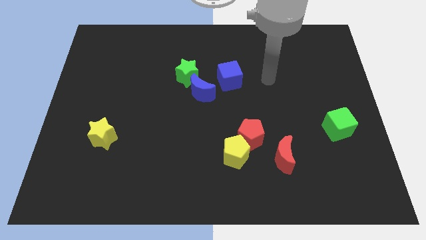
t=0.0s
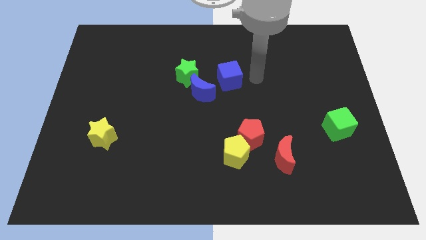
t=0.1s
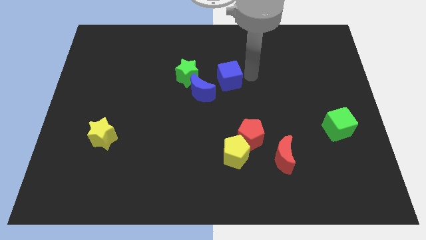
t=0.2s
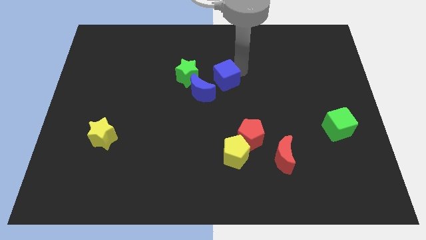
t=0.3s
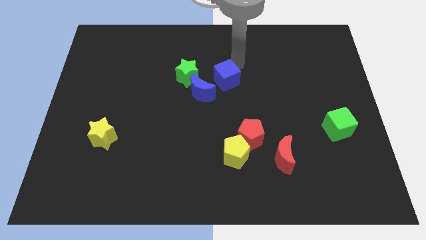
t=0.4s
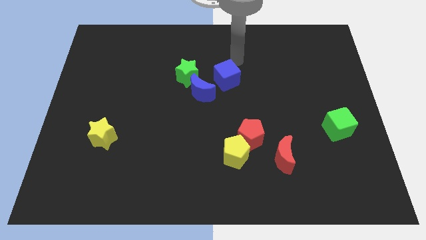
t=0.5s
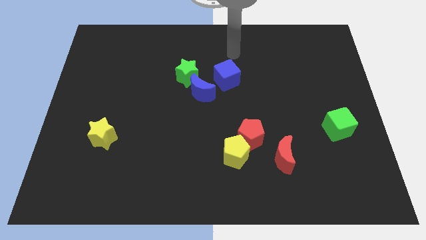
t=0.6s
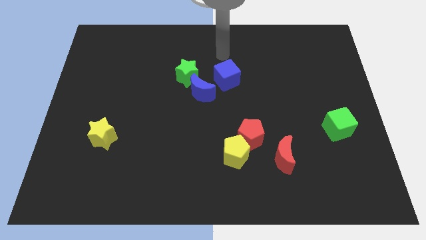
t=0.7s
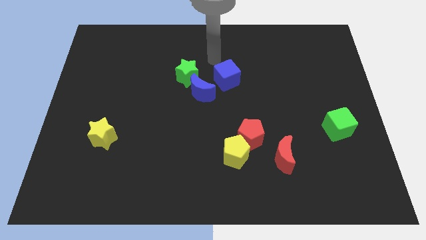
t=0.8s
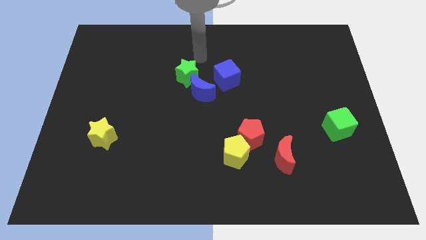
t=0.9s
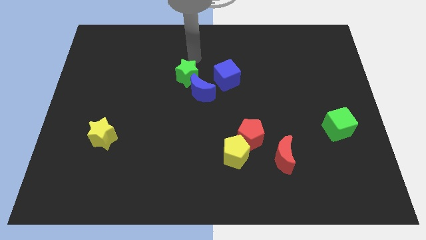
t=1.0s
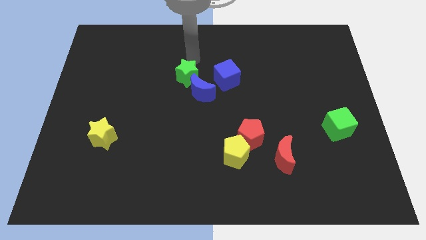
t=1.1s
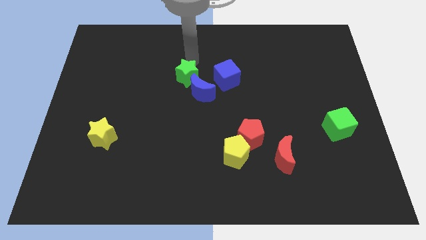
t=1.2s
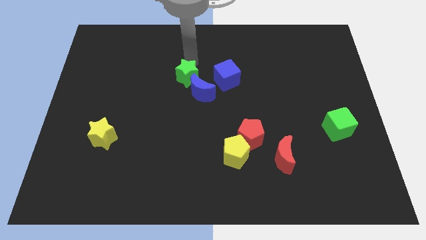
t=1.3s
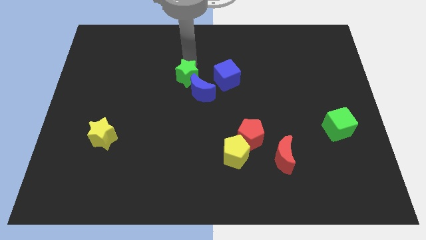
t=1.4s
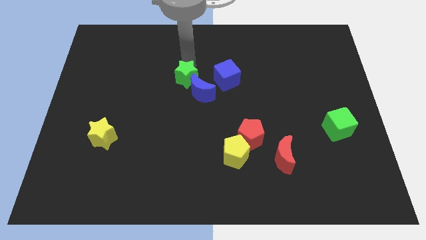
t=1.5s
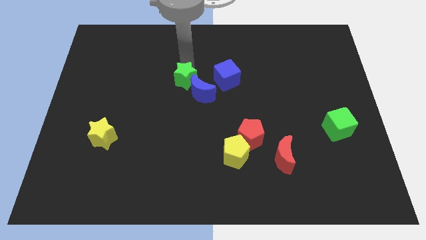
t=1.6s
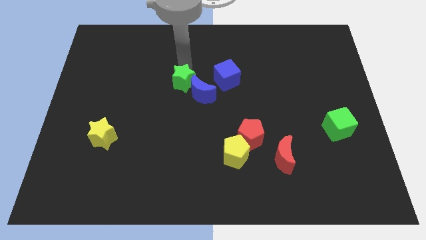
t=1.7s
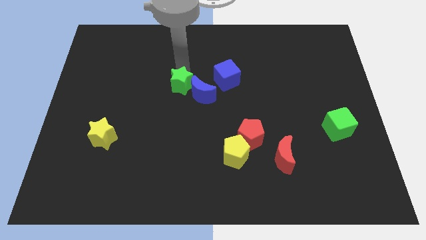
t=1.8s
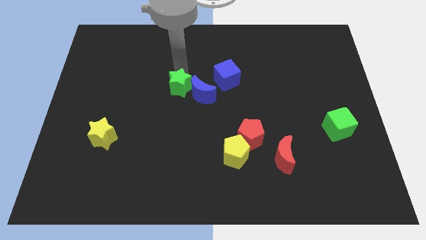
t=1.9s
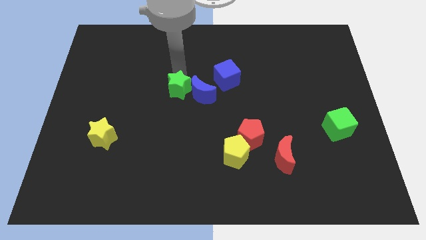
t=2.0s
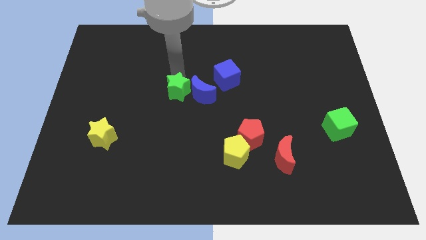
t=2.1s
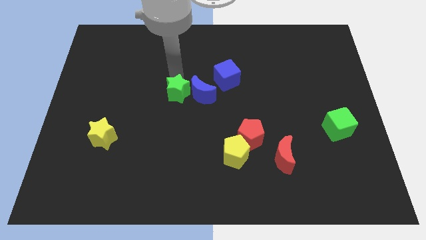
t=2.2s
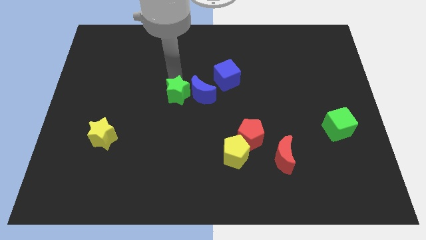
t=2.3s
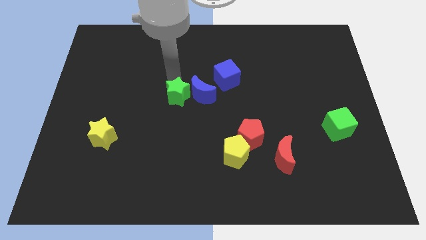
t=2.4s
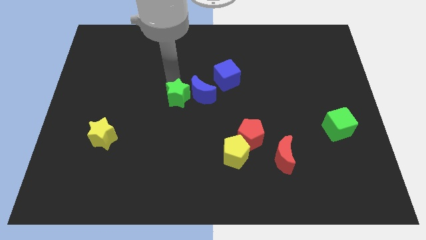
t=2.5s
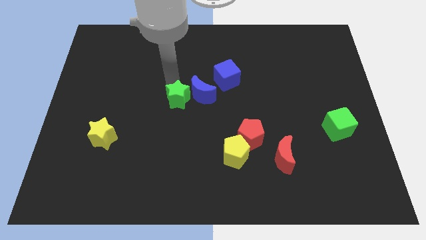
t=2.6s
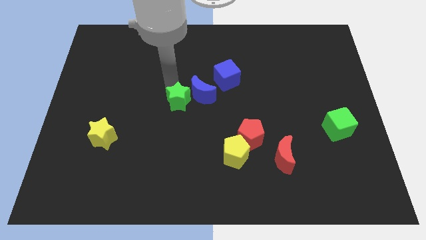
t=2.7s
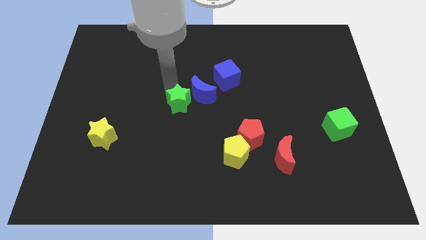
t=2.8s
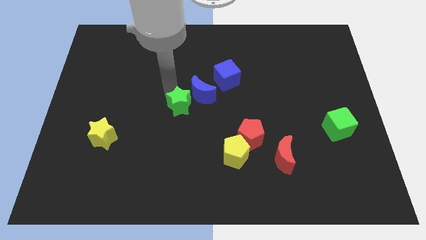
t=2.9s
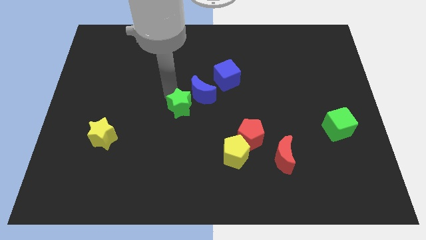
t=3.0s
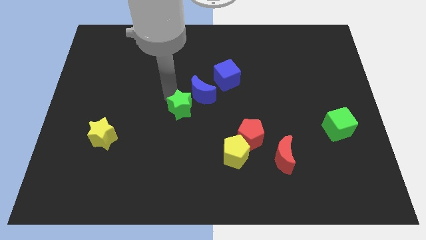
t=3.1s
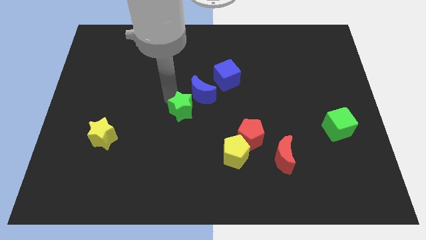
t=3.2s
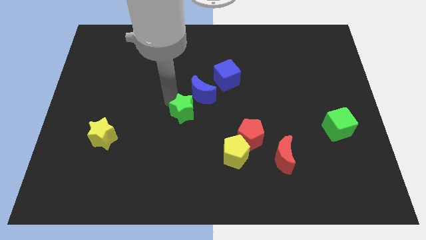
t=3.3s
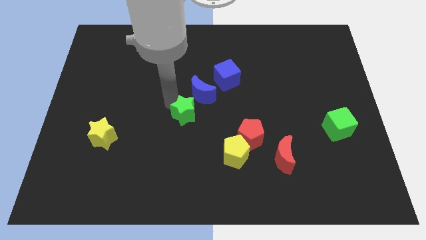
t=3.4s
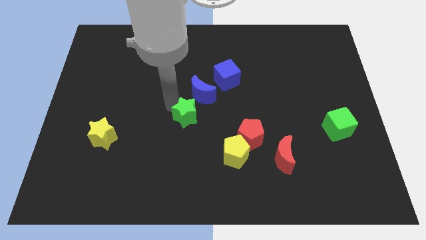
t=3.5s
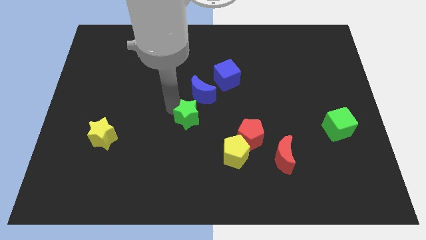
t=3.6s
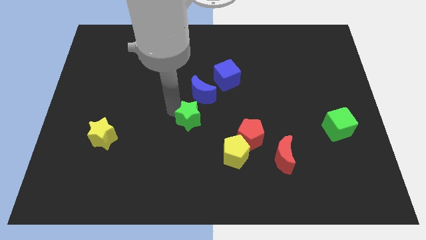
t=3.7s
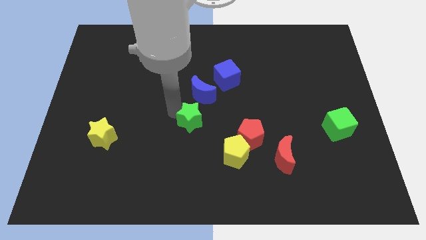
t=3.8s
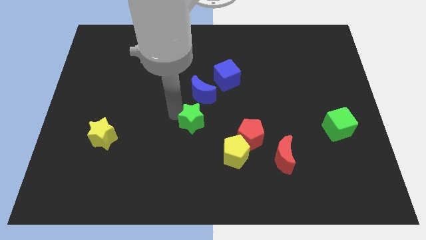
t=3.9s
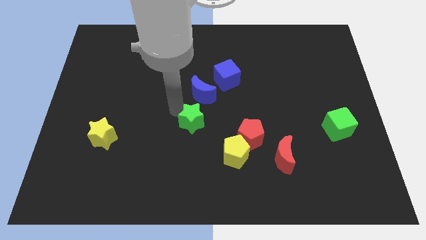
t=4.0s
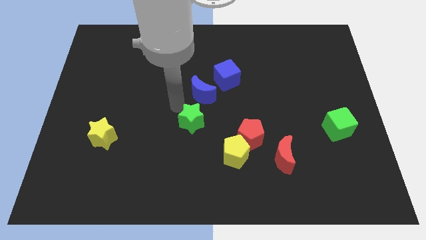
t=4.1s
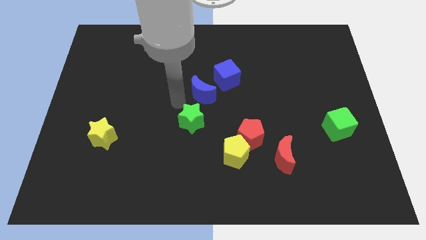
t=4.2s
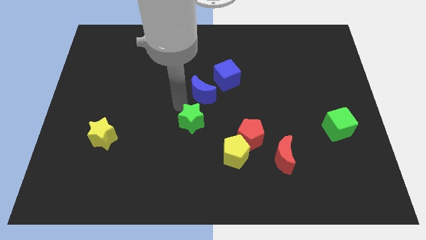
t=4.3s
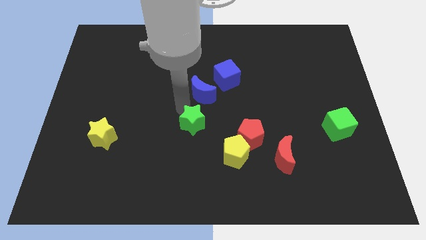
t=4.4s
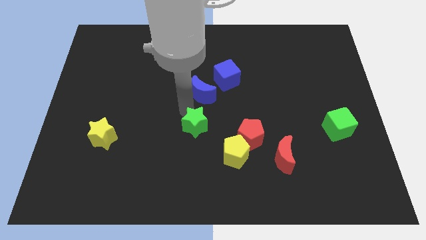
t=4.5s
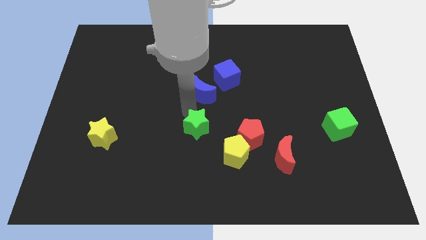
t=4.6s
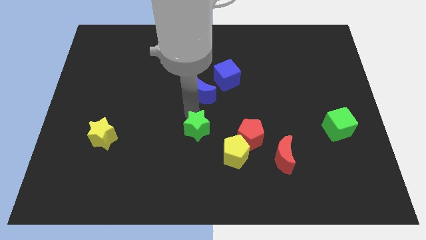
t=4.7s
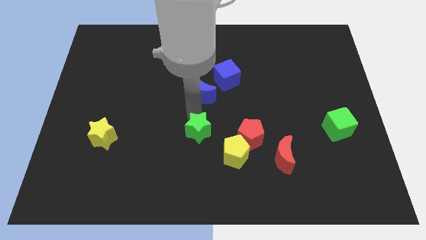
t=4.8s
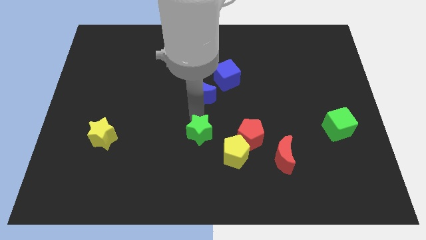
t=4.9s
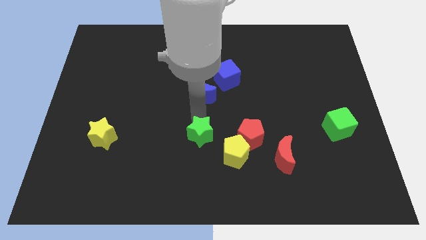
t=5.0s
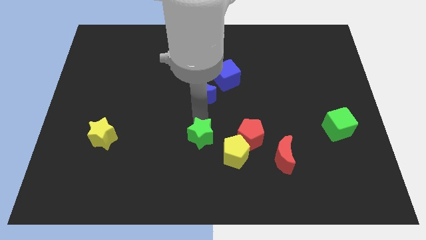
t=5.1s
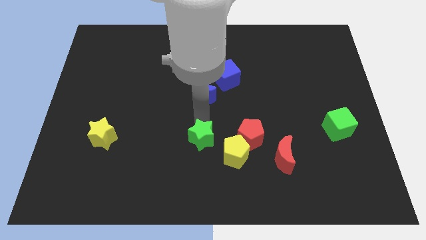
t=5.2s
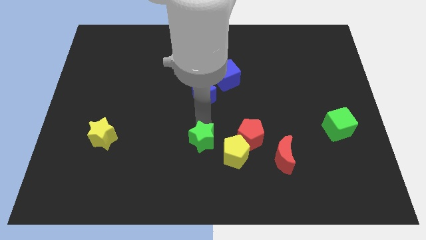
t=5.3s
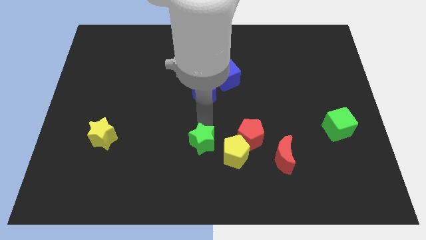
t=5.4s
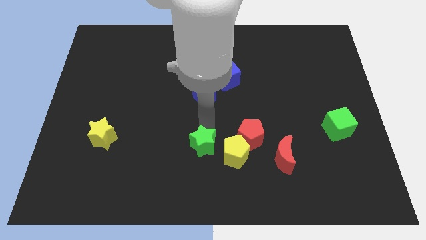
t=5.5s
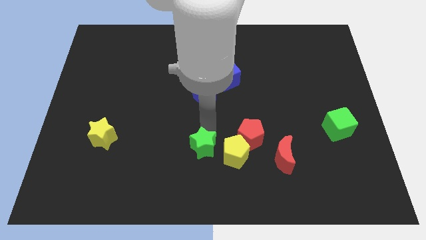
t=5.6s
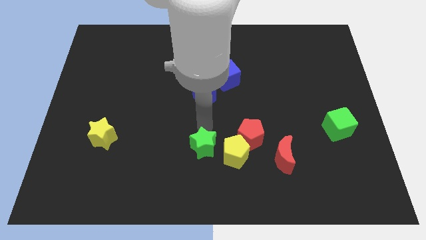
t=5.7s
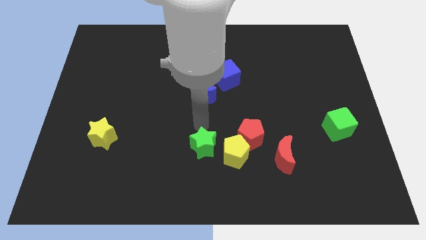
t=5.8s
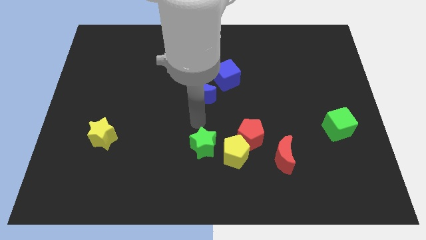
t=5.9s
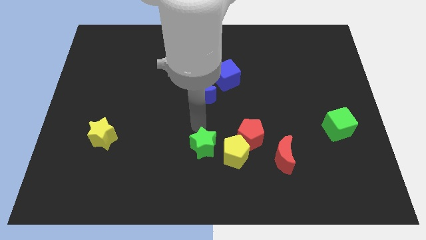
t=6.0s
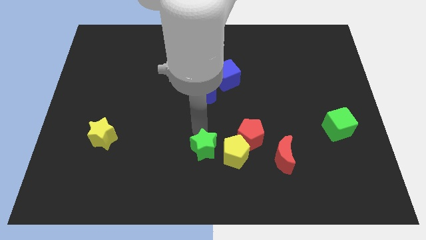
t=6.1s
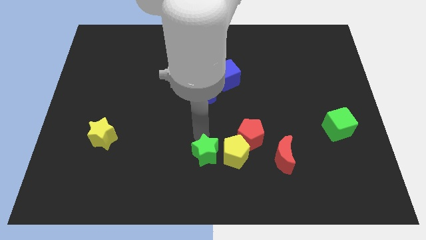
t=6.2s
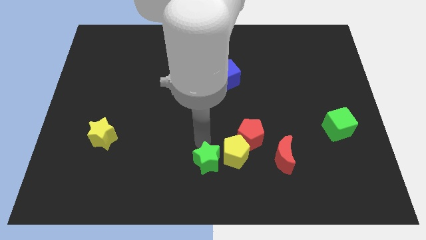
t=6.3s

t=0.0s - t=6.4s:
put the green star to the bottom
